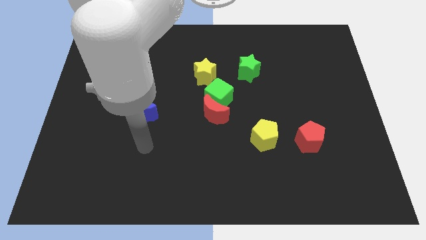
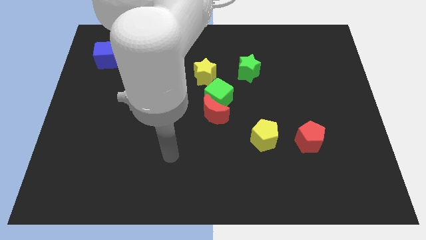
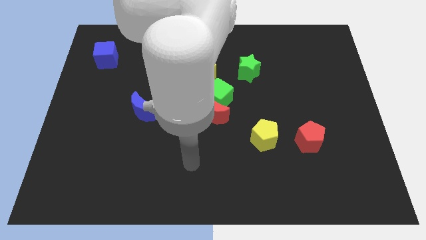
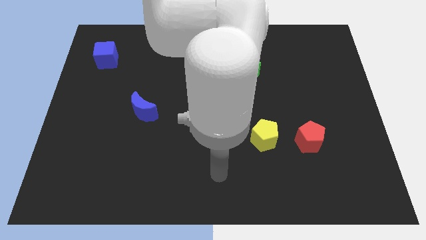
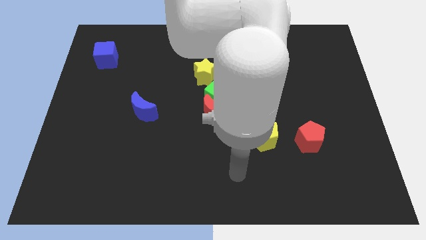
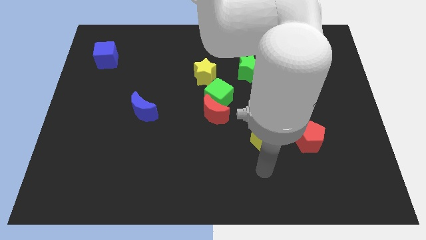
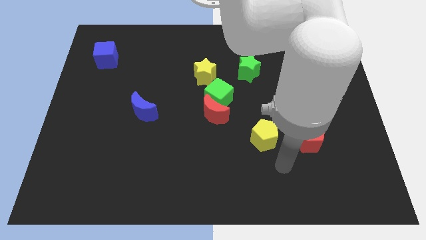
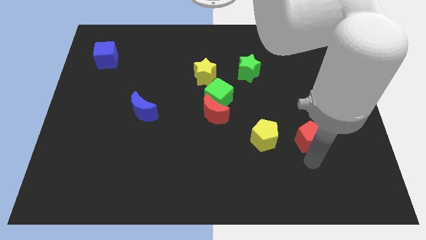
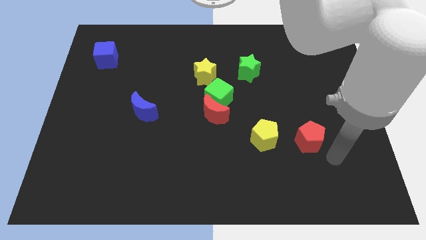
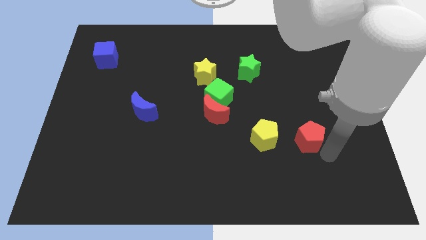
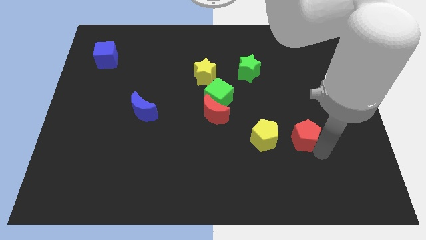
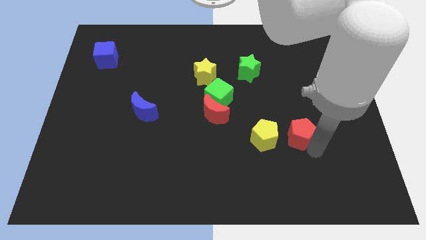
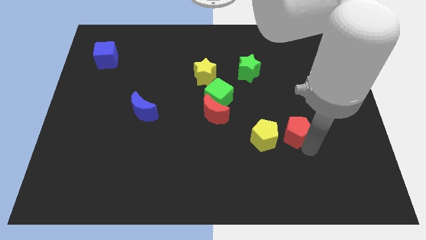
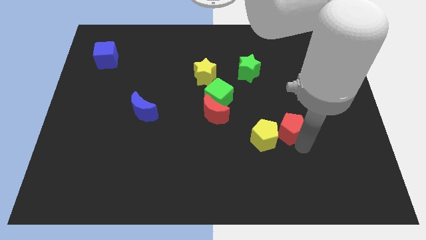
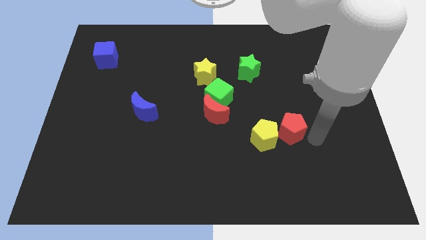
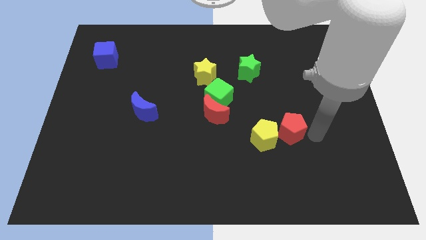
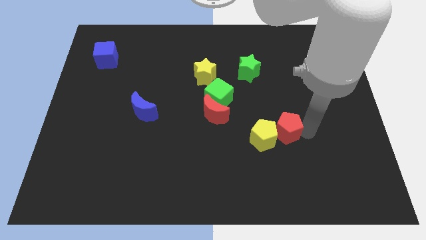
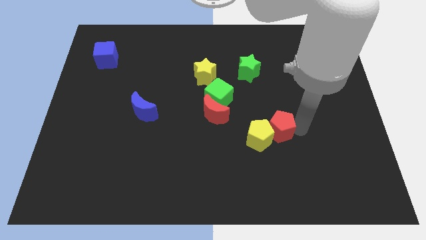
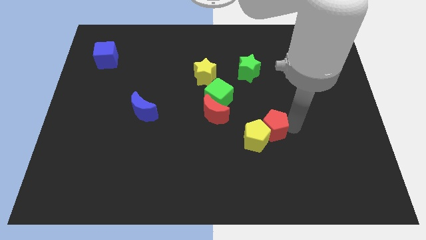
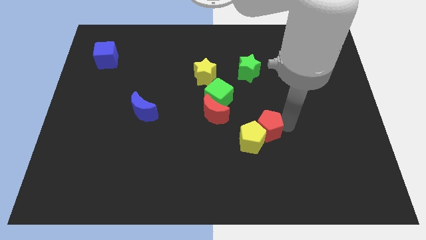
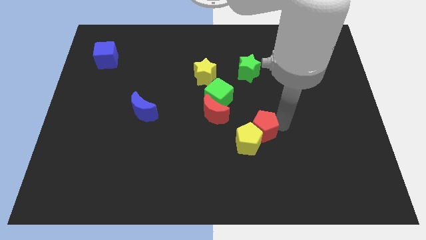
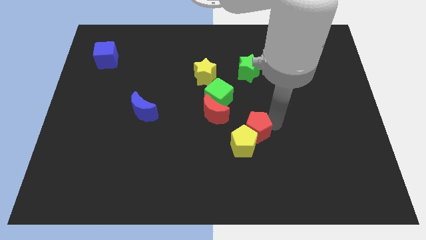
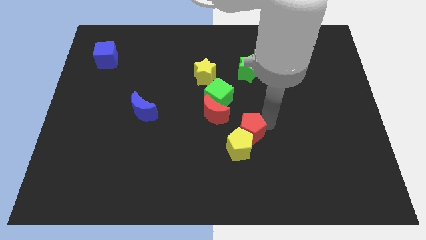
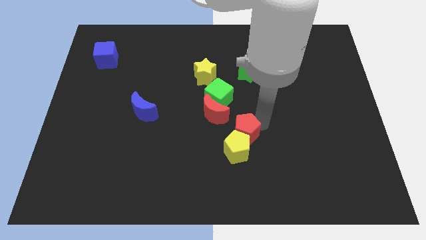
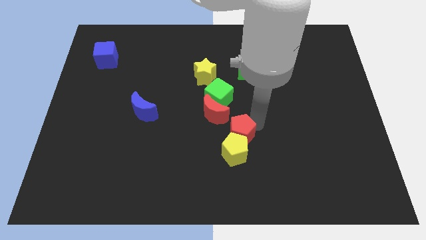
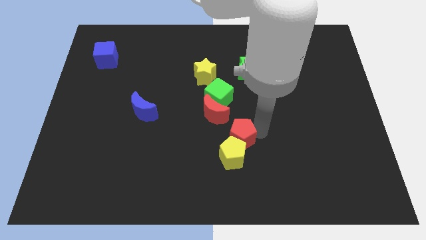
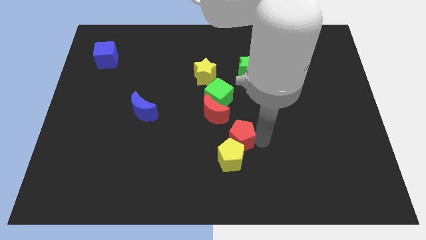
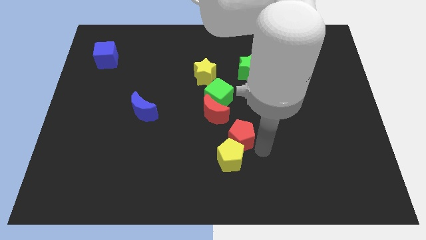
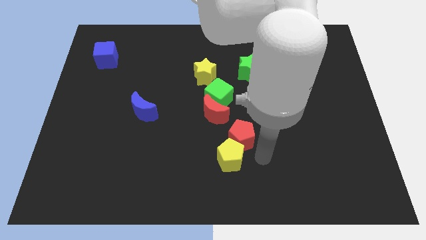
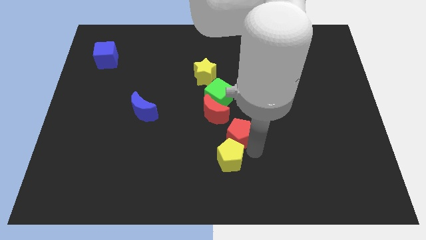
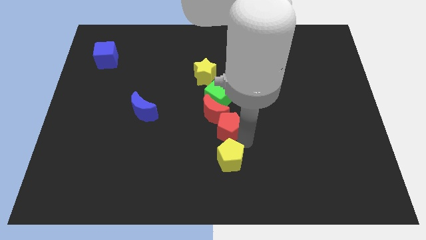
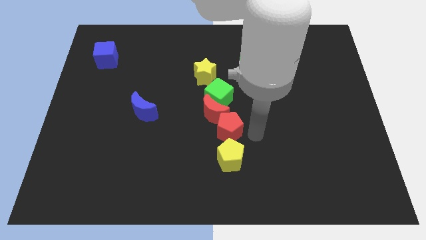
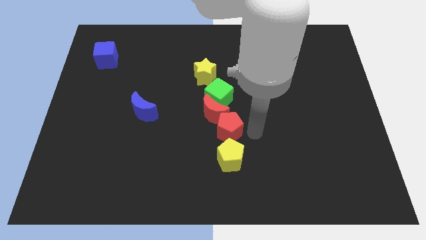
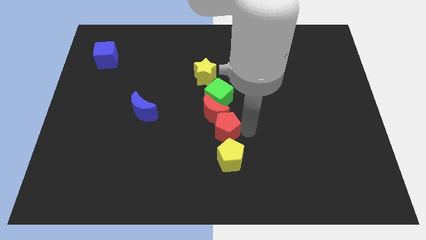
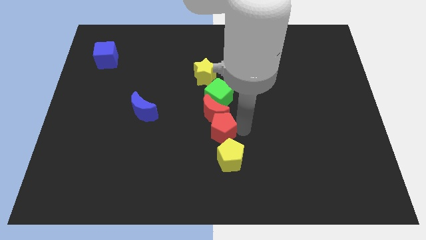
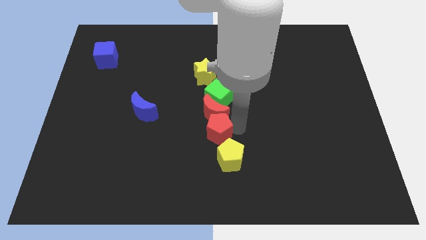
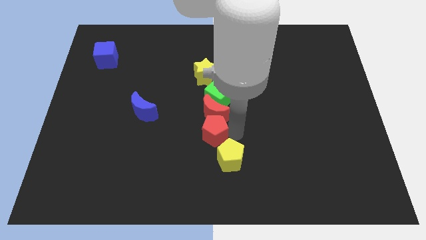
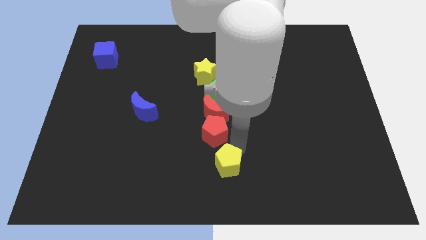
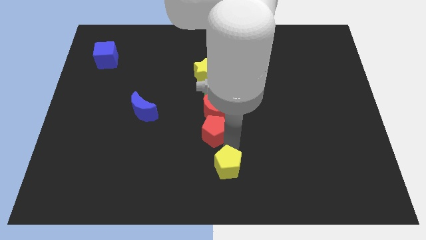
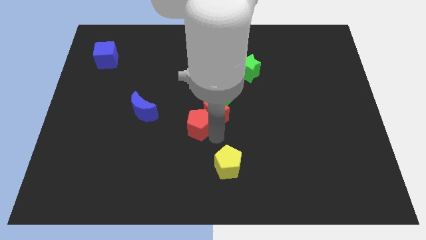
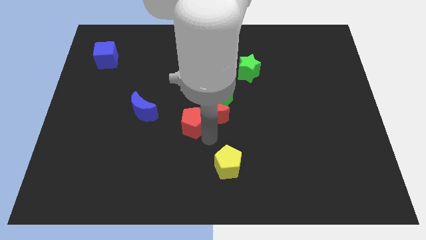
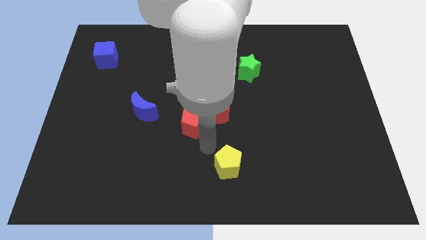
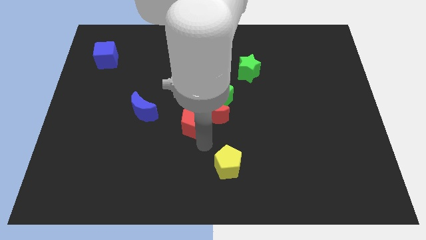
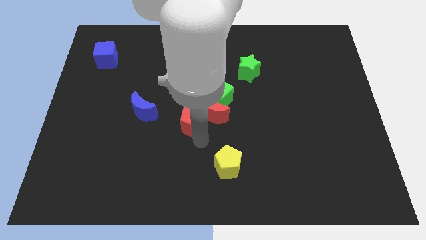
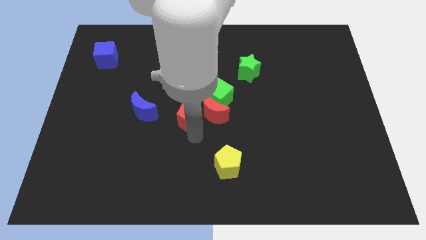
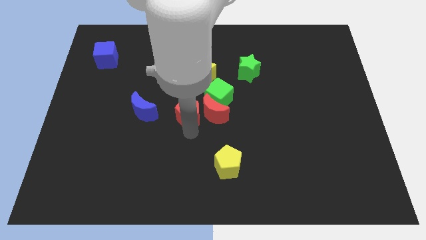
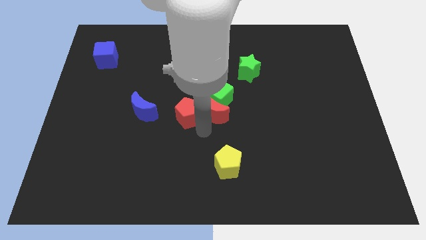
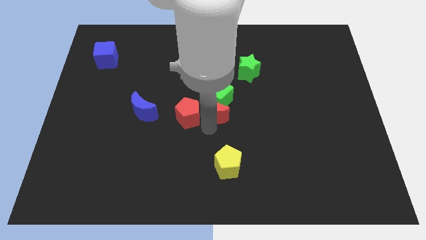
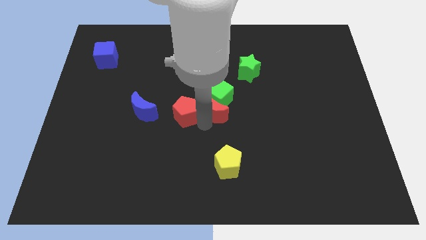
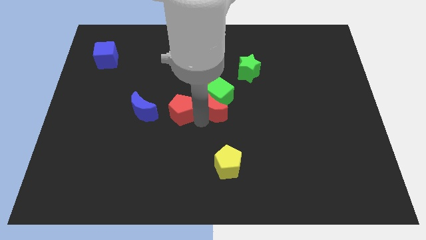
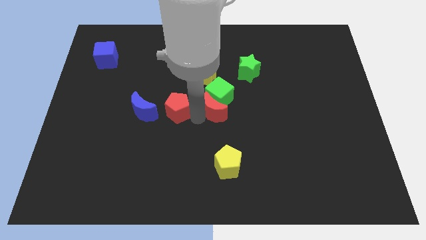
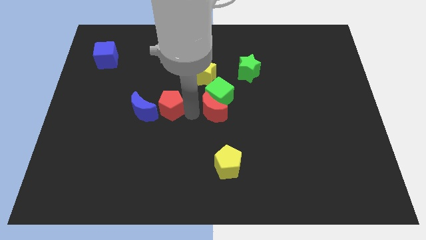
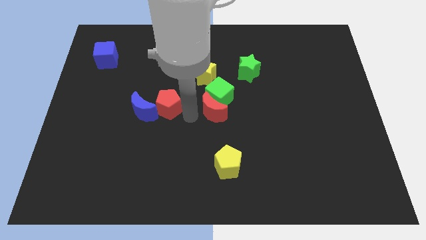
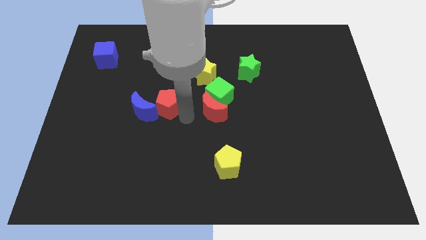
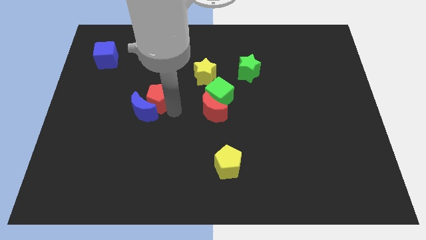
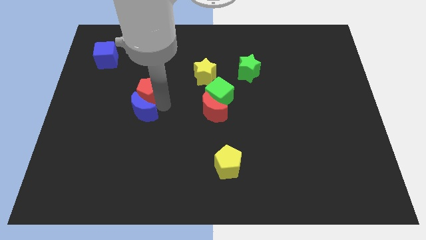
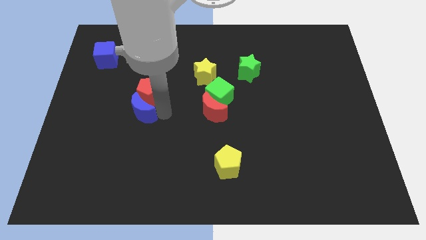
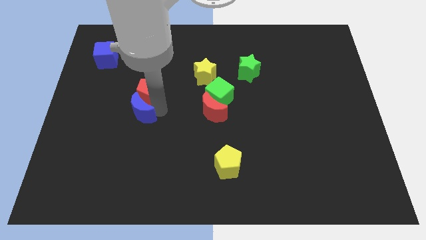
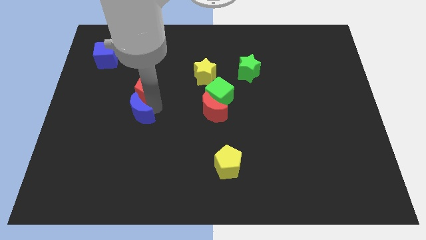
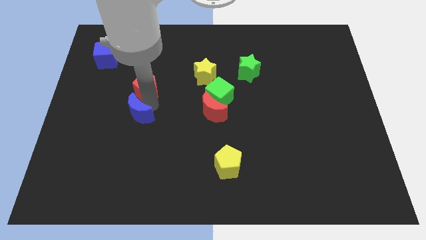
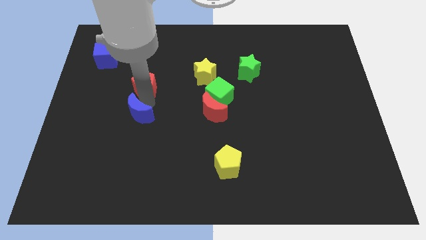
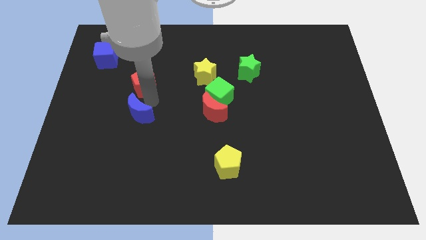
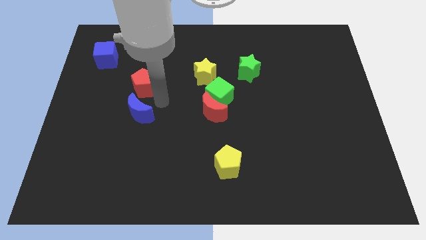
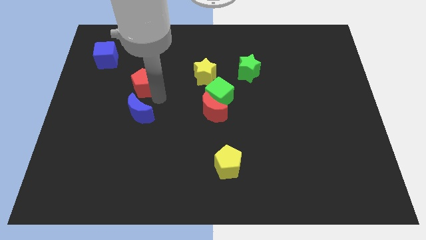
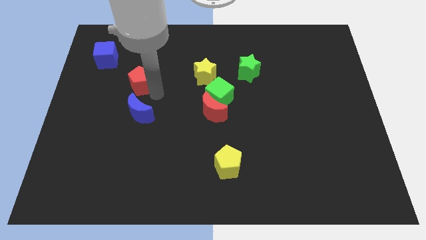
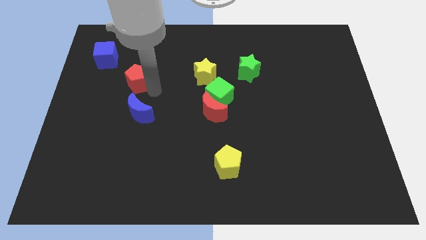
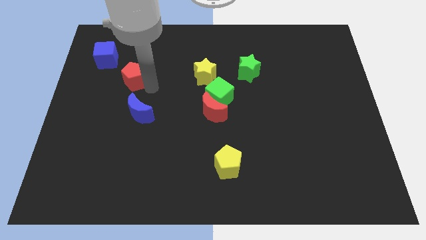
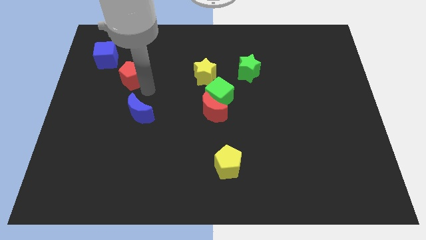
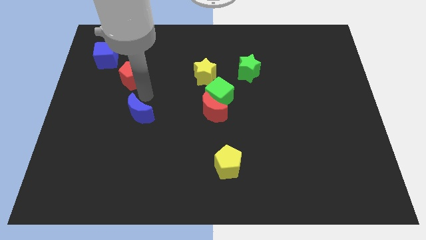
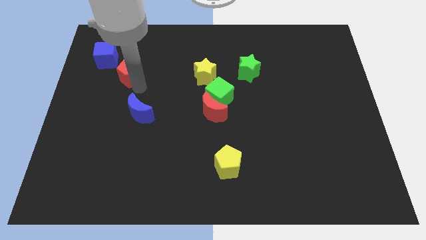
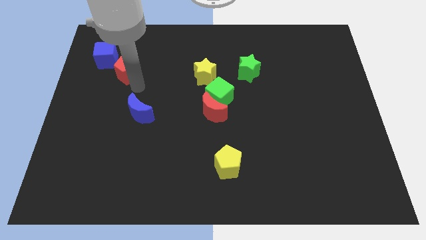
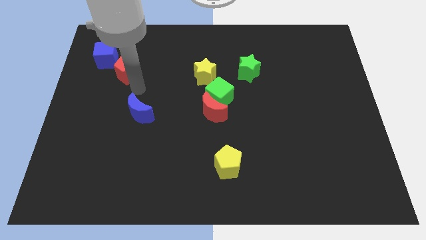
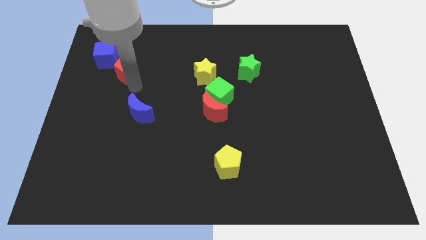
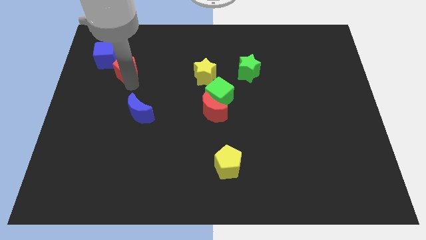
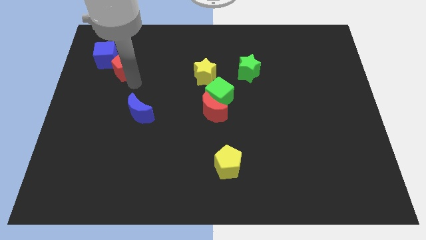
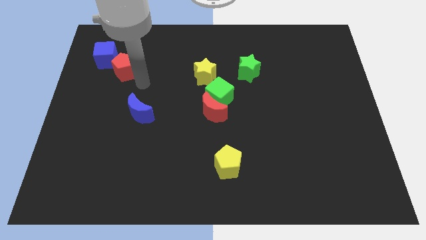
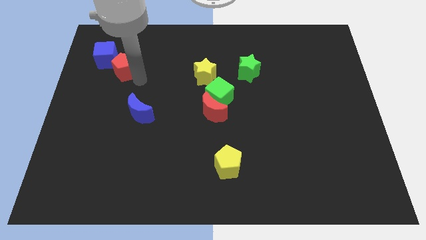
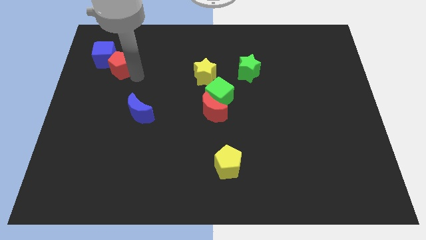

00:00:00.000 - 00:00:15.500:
slide the red pentagon to the blue cube
